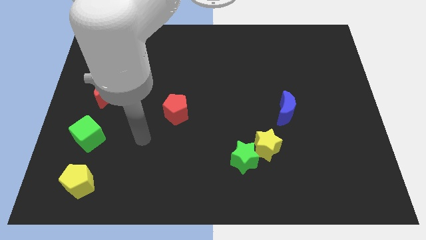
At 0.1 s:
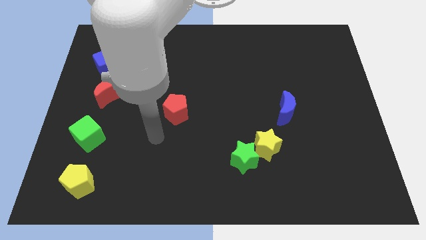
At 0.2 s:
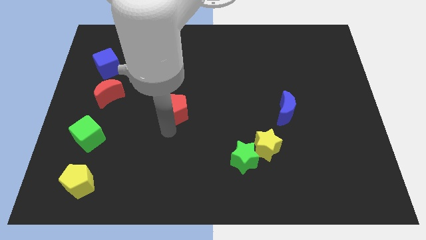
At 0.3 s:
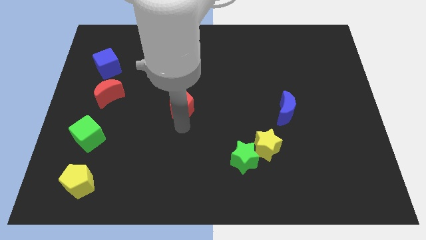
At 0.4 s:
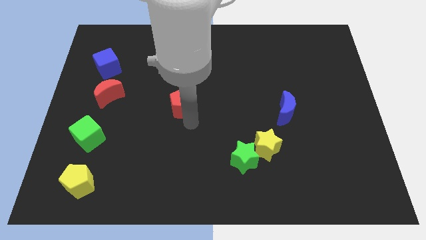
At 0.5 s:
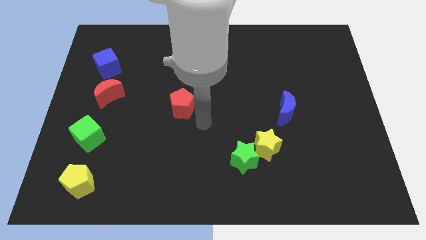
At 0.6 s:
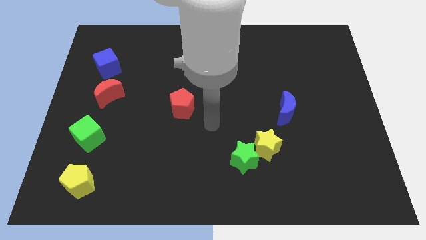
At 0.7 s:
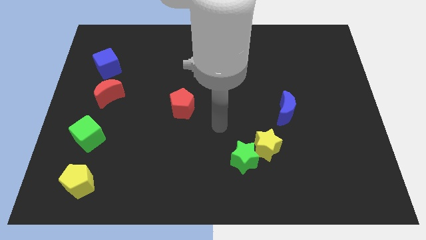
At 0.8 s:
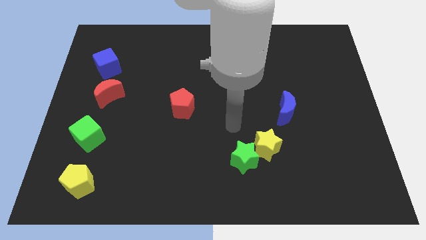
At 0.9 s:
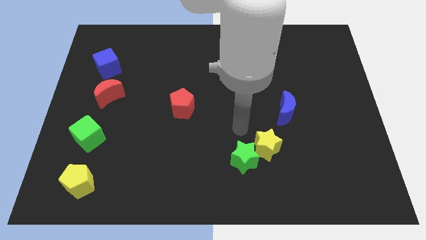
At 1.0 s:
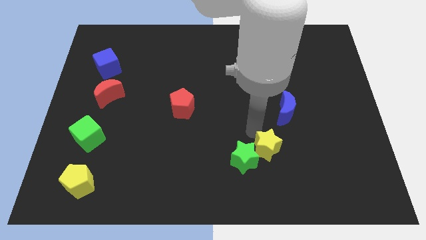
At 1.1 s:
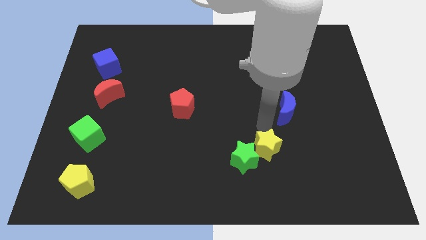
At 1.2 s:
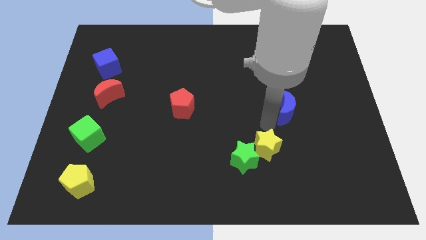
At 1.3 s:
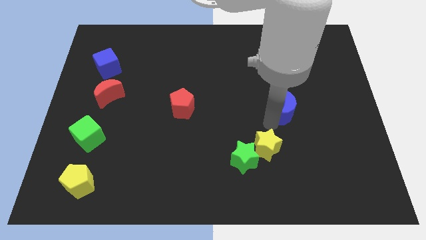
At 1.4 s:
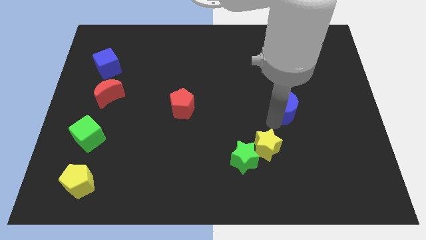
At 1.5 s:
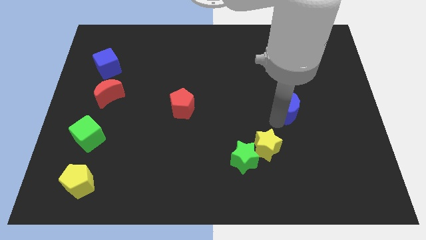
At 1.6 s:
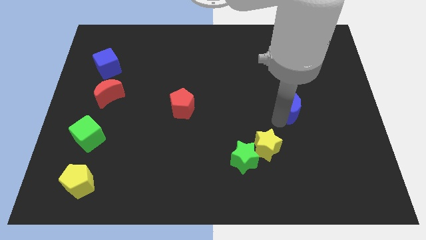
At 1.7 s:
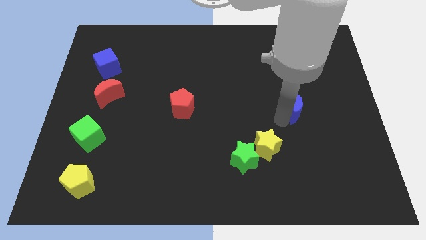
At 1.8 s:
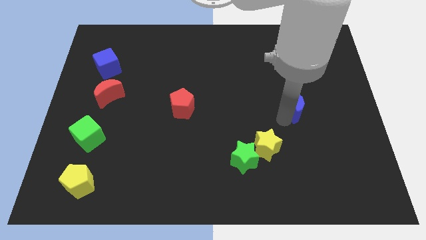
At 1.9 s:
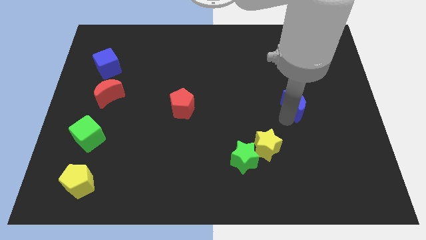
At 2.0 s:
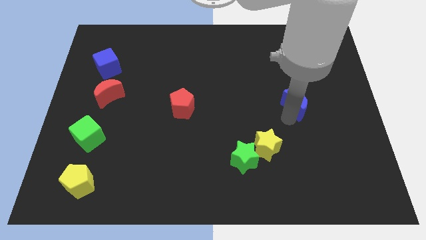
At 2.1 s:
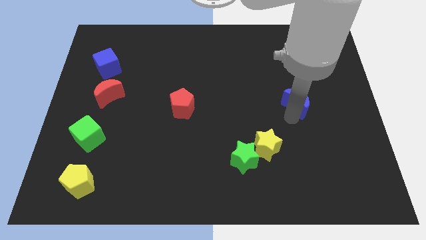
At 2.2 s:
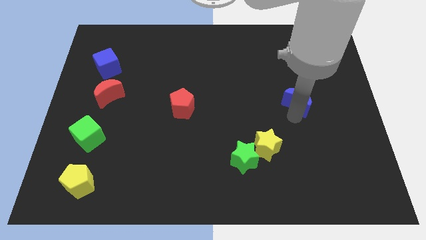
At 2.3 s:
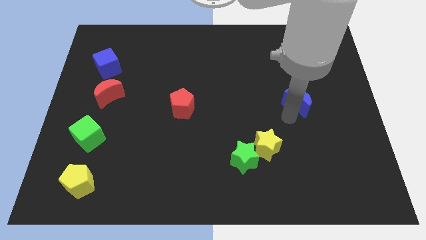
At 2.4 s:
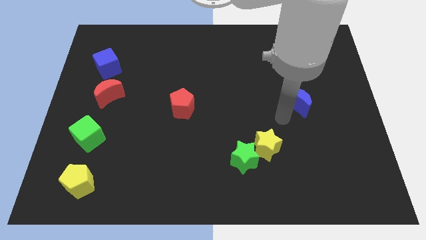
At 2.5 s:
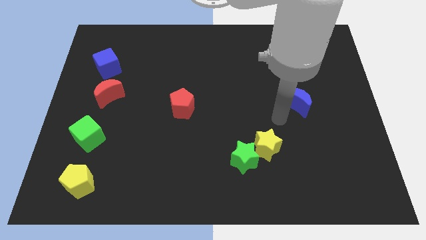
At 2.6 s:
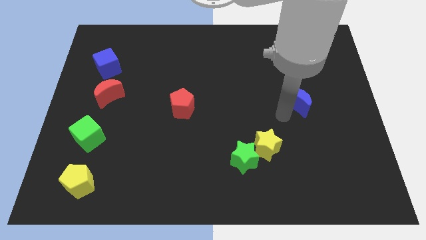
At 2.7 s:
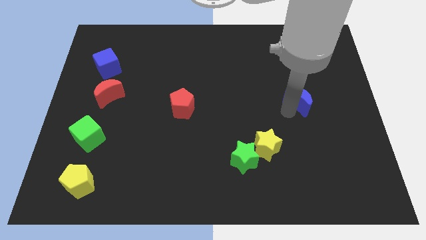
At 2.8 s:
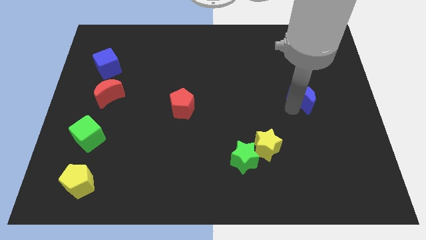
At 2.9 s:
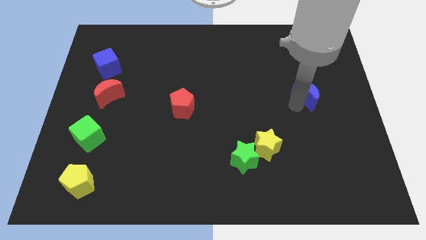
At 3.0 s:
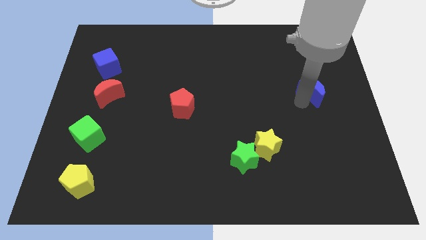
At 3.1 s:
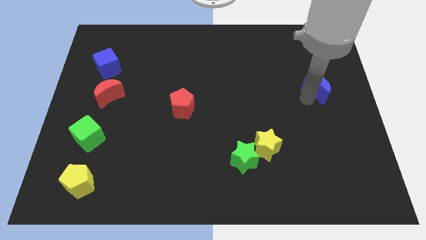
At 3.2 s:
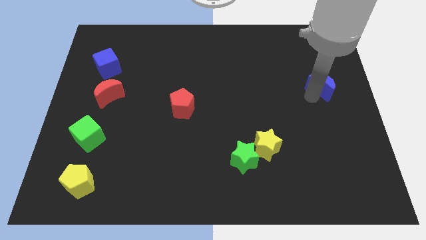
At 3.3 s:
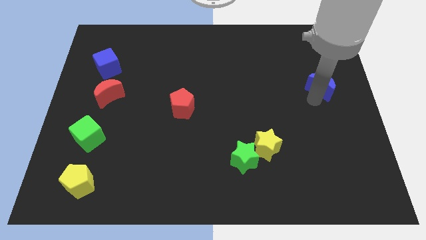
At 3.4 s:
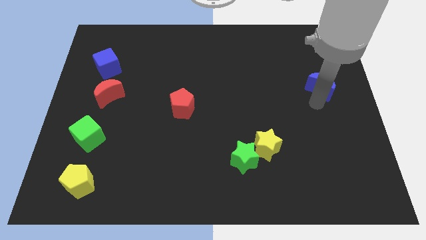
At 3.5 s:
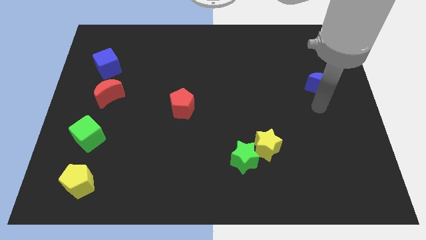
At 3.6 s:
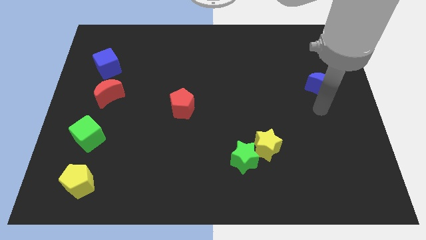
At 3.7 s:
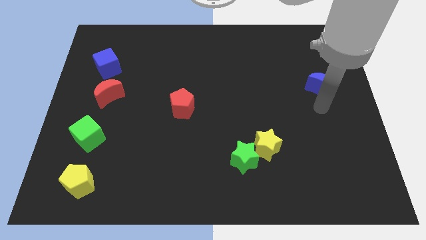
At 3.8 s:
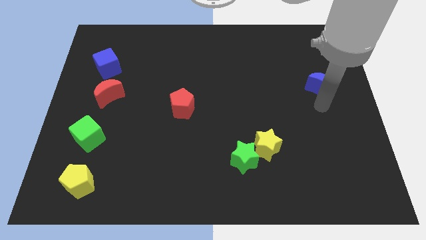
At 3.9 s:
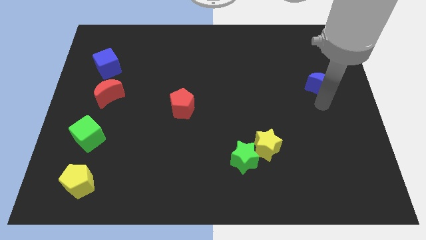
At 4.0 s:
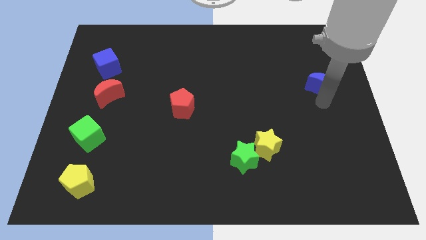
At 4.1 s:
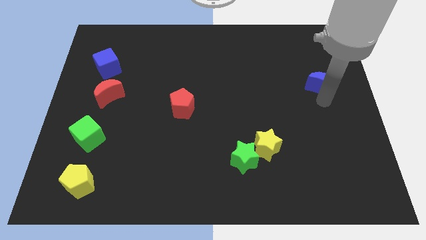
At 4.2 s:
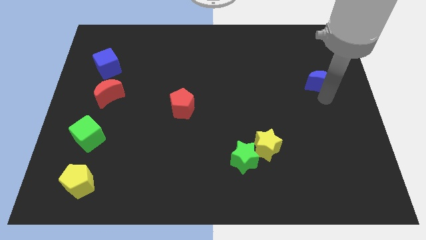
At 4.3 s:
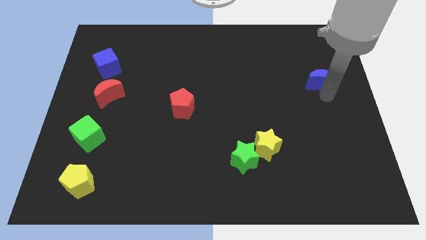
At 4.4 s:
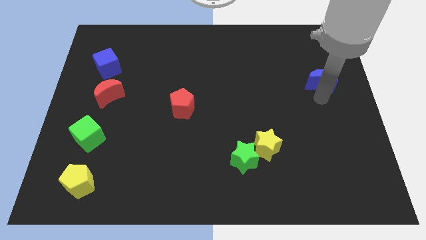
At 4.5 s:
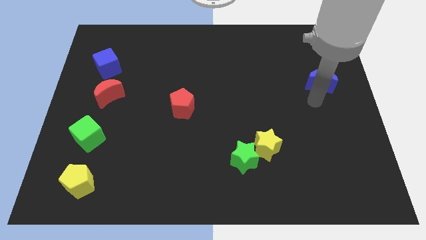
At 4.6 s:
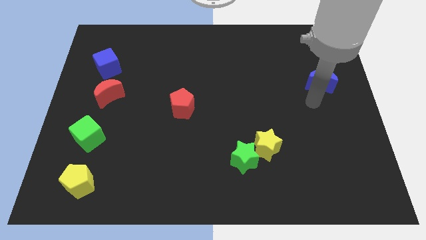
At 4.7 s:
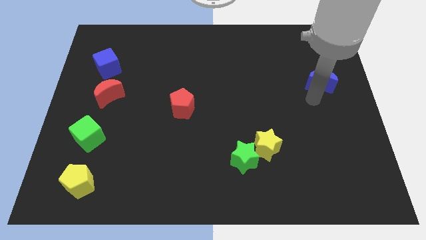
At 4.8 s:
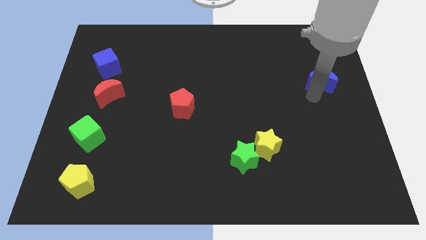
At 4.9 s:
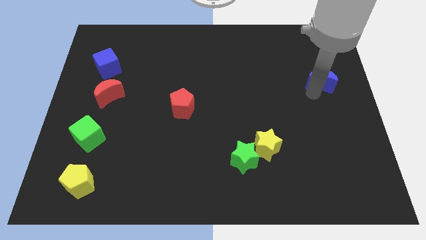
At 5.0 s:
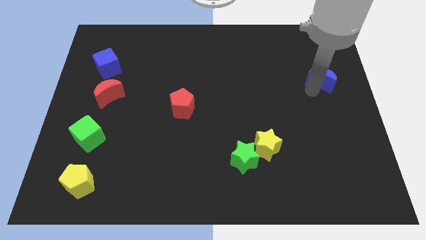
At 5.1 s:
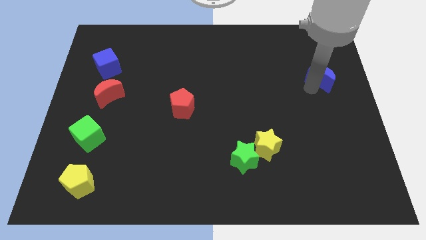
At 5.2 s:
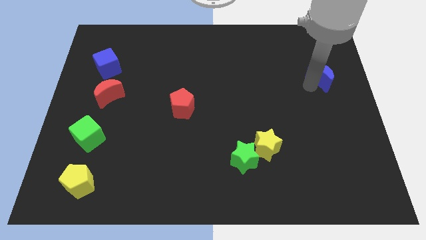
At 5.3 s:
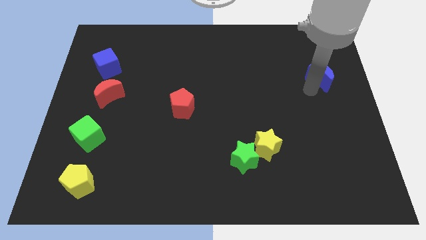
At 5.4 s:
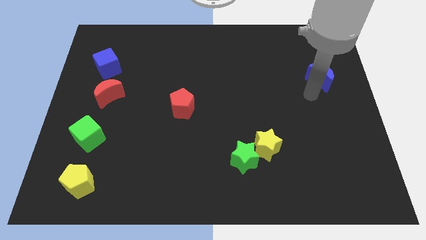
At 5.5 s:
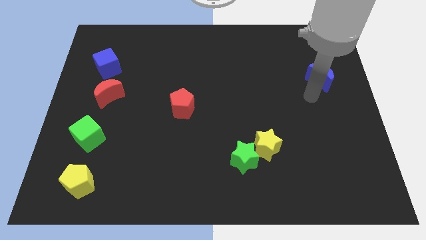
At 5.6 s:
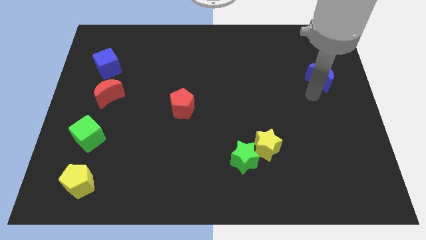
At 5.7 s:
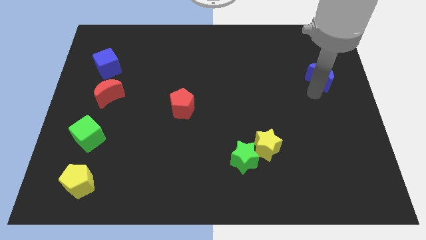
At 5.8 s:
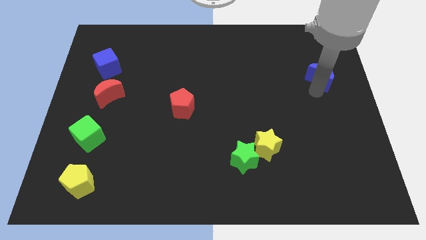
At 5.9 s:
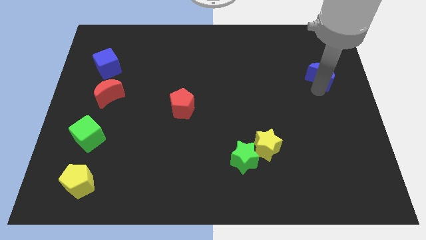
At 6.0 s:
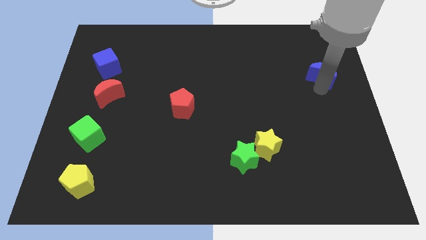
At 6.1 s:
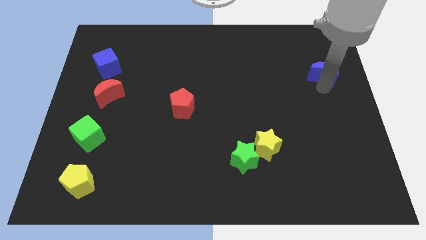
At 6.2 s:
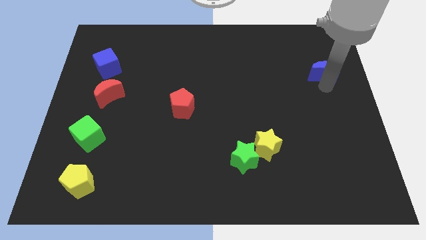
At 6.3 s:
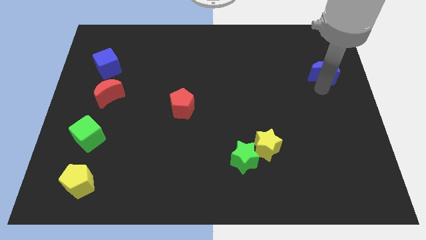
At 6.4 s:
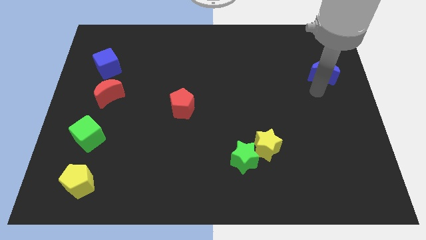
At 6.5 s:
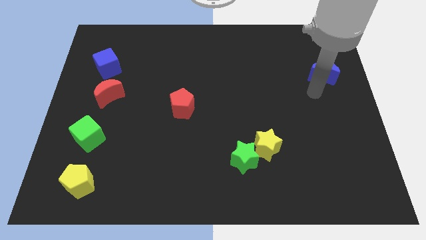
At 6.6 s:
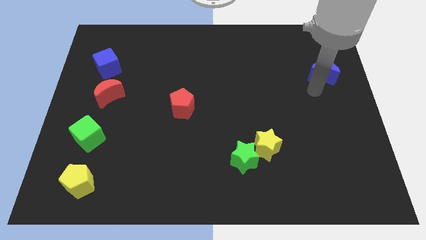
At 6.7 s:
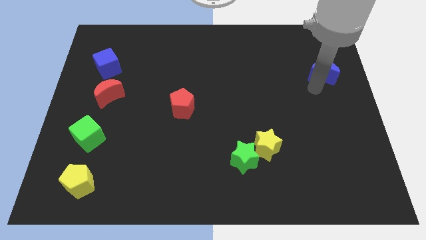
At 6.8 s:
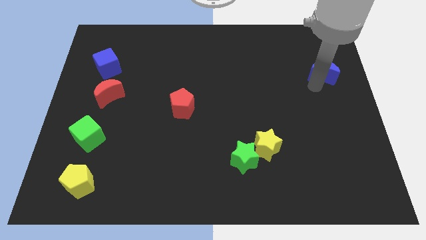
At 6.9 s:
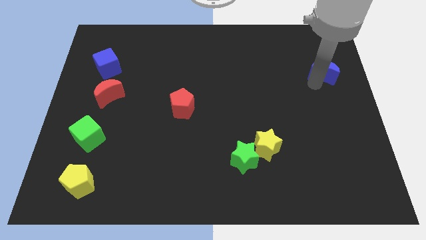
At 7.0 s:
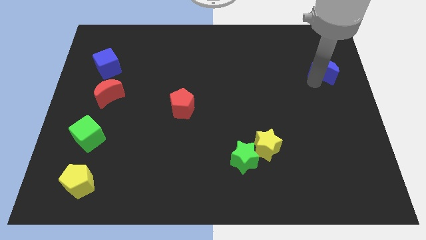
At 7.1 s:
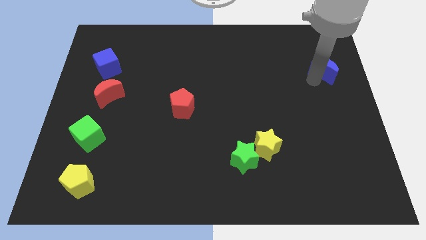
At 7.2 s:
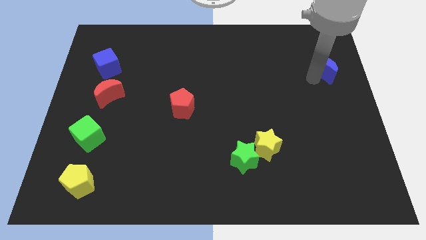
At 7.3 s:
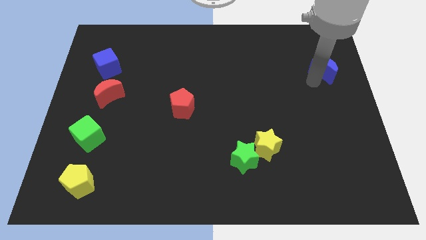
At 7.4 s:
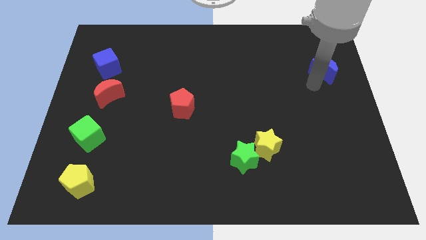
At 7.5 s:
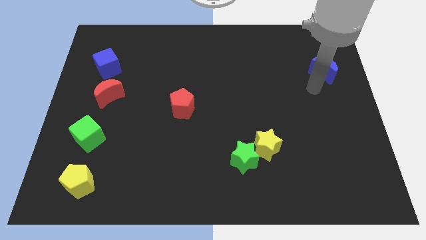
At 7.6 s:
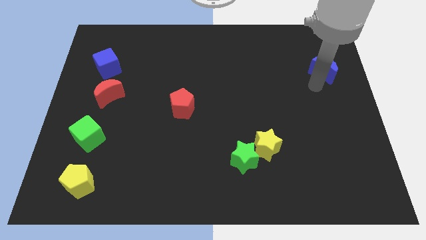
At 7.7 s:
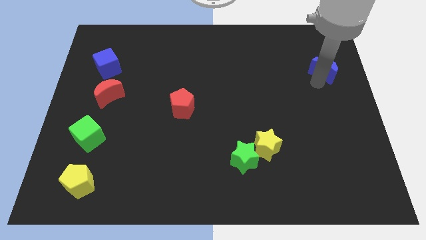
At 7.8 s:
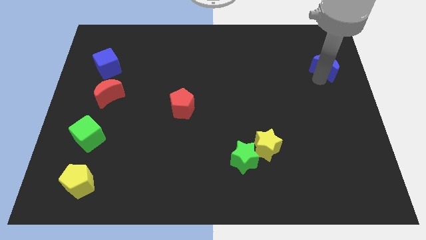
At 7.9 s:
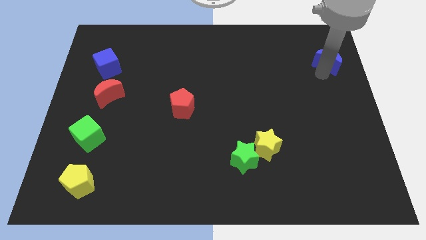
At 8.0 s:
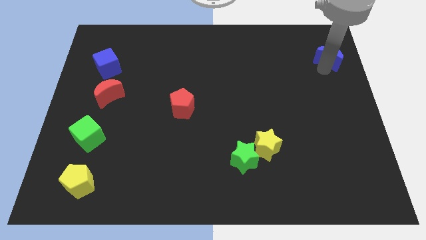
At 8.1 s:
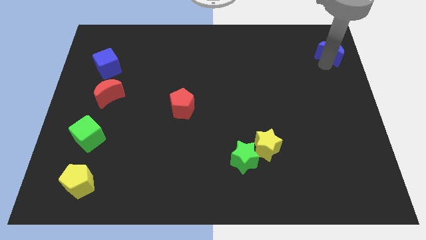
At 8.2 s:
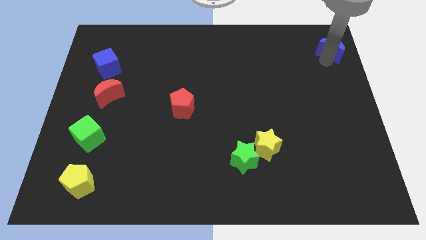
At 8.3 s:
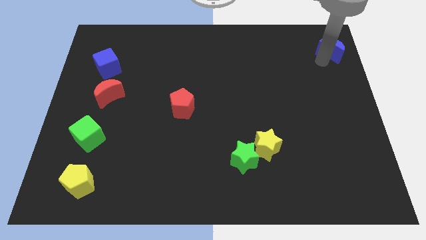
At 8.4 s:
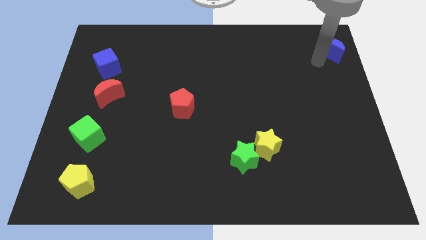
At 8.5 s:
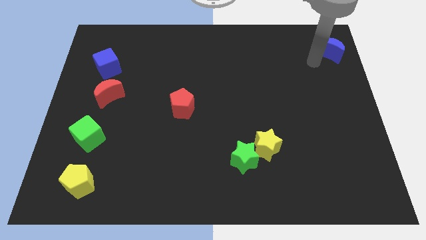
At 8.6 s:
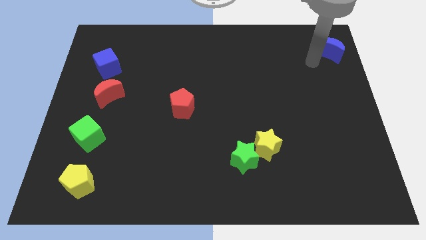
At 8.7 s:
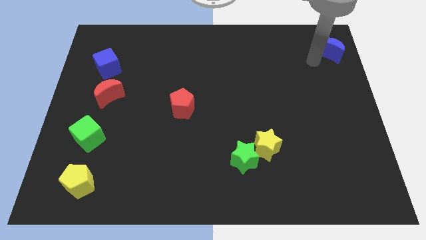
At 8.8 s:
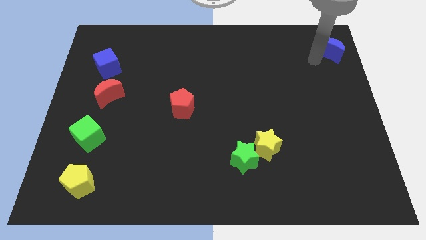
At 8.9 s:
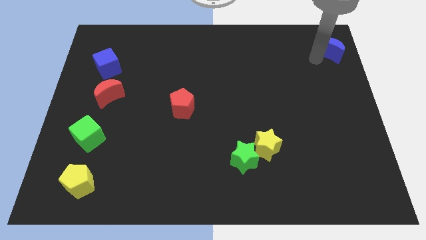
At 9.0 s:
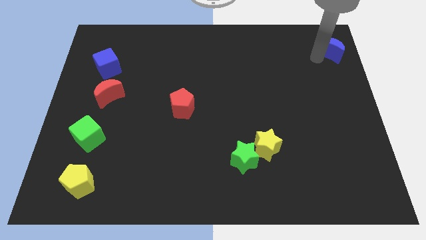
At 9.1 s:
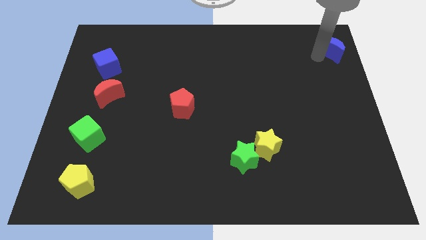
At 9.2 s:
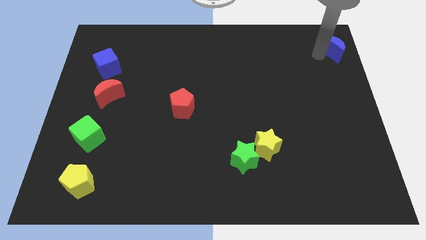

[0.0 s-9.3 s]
slide the blue moon to the top right of the board
